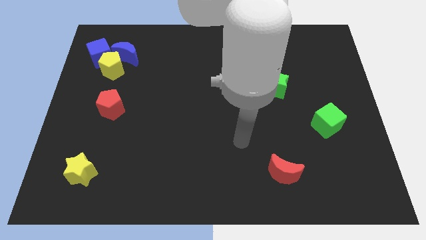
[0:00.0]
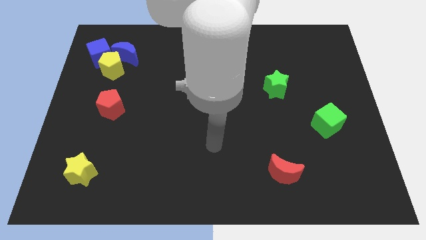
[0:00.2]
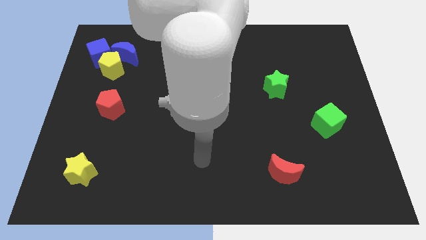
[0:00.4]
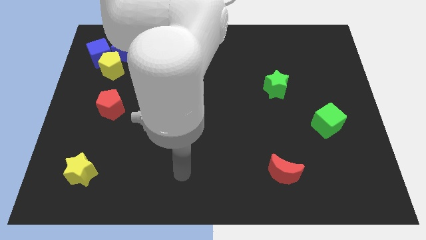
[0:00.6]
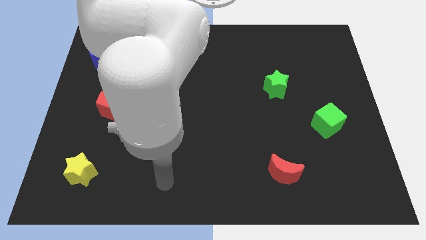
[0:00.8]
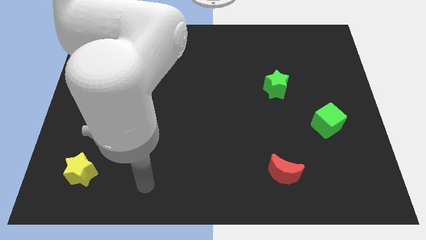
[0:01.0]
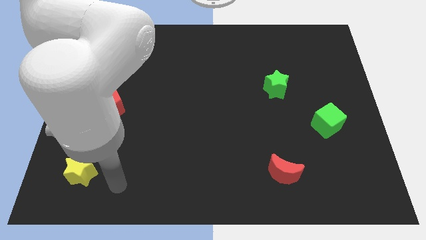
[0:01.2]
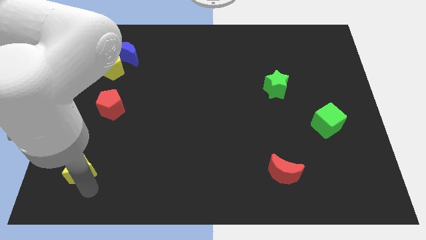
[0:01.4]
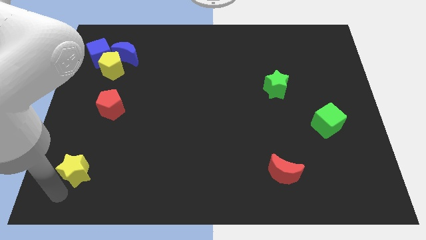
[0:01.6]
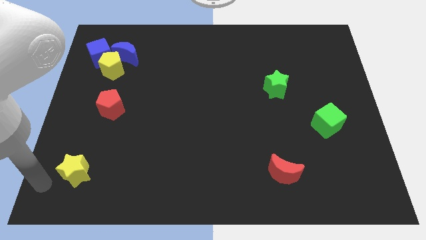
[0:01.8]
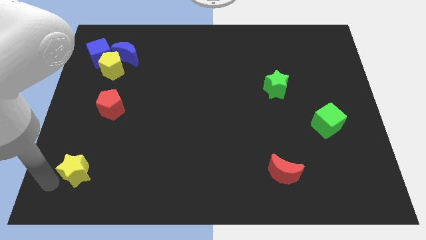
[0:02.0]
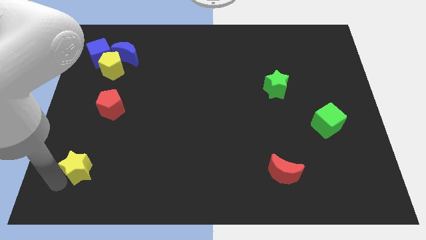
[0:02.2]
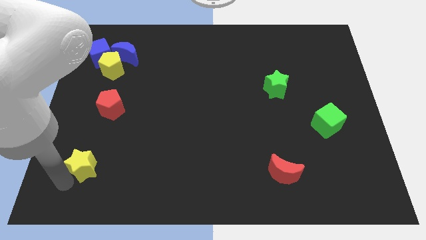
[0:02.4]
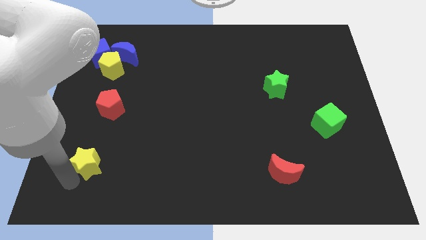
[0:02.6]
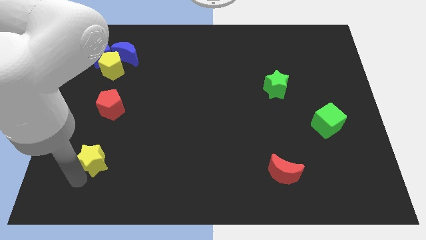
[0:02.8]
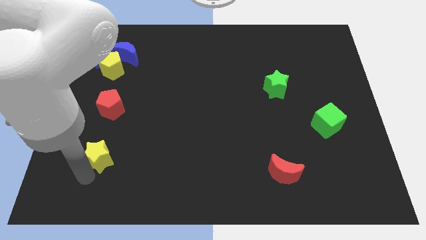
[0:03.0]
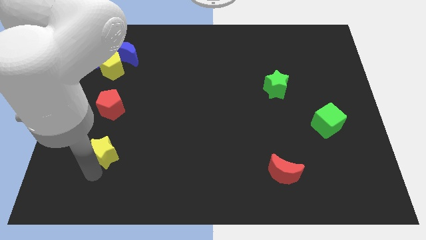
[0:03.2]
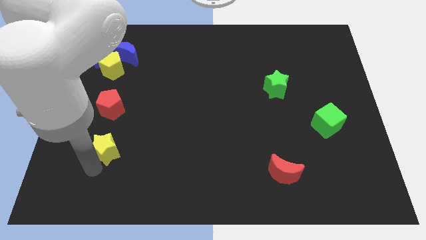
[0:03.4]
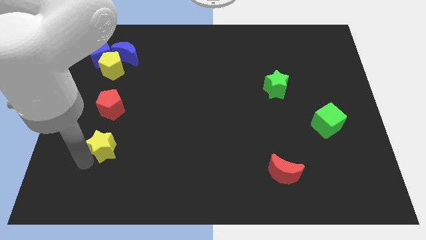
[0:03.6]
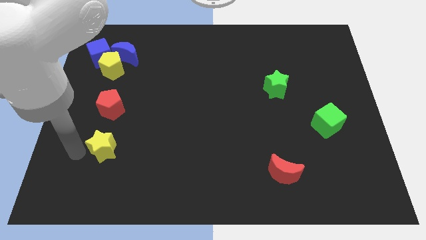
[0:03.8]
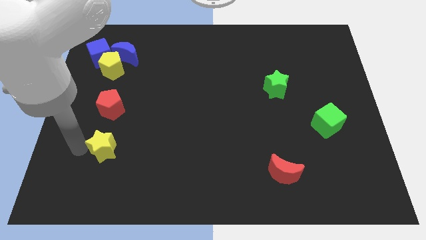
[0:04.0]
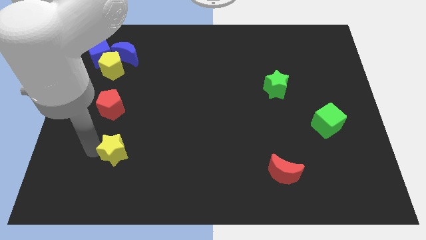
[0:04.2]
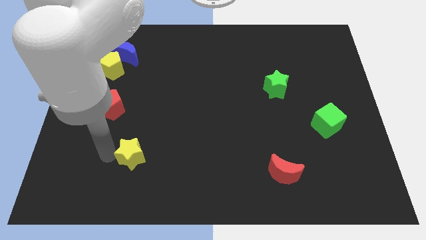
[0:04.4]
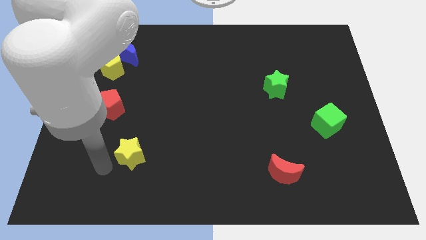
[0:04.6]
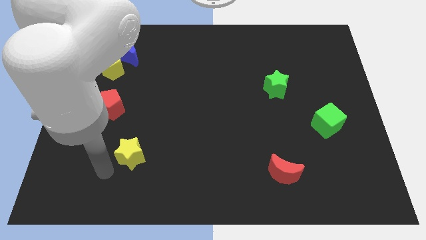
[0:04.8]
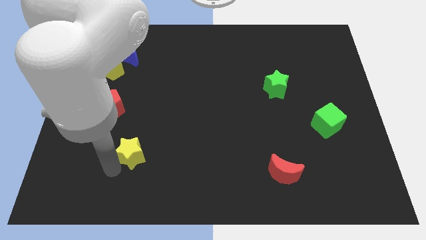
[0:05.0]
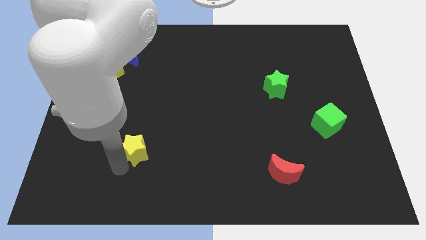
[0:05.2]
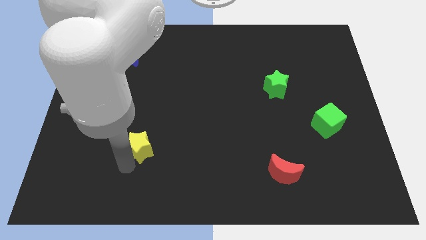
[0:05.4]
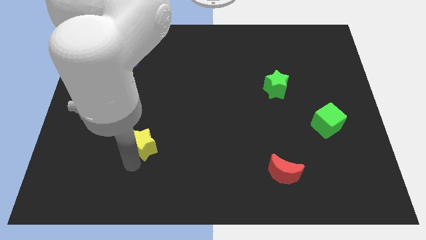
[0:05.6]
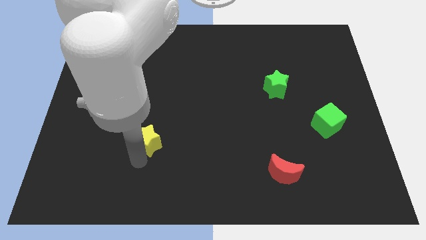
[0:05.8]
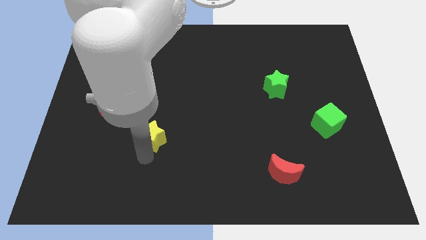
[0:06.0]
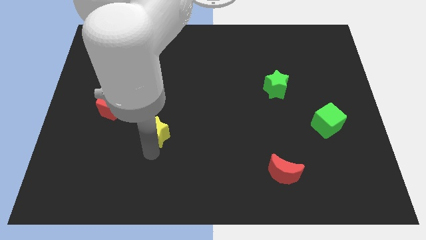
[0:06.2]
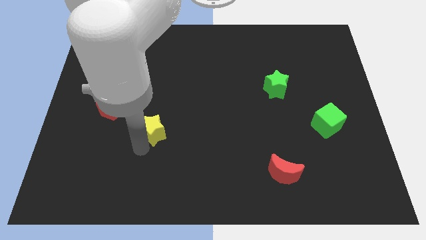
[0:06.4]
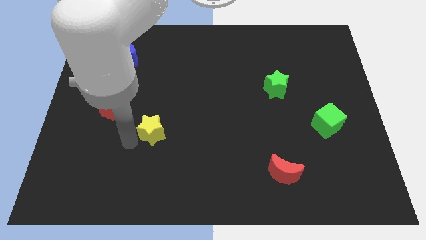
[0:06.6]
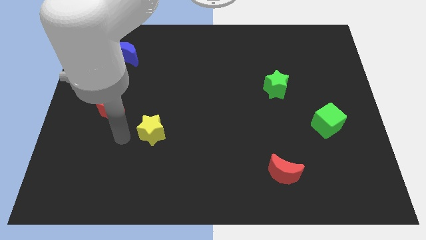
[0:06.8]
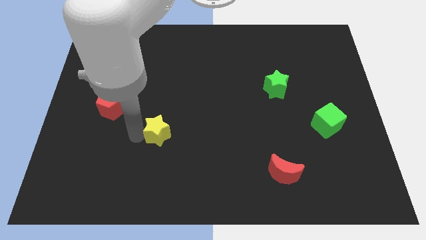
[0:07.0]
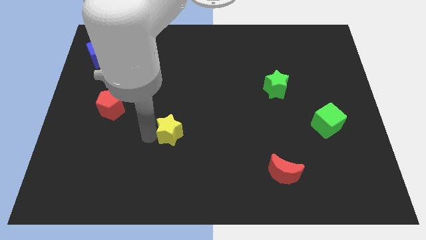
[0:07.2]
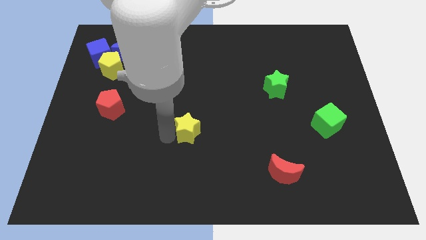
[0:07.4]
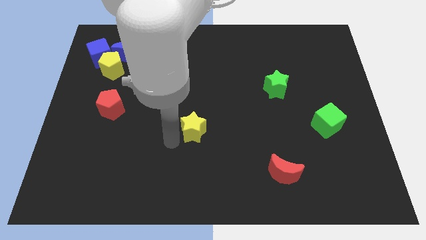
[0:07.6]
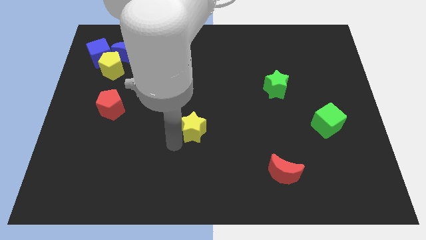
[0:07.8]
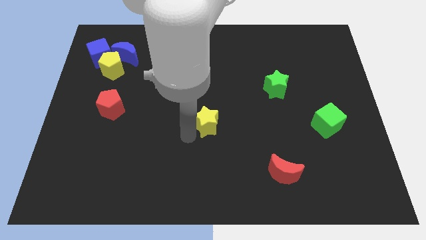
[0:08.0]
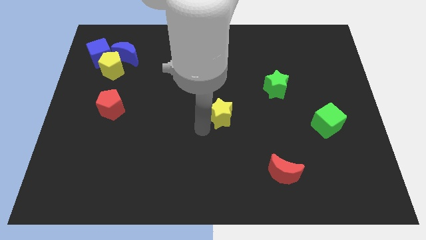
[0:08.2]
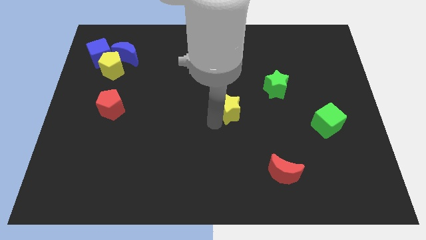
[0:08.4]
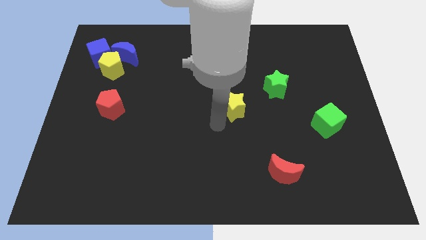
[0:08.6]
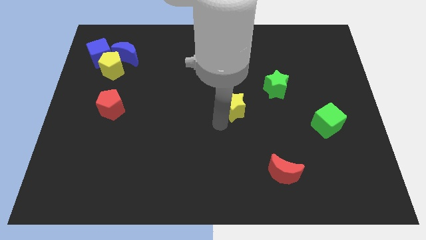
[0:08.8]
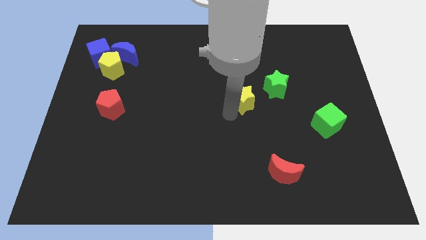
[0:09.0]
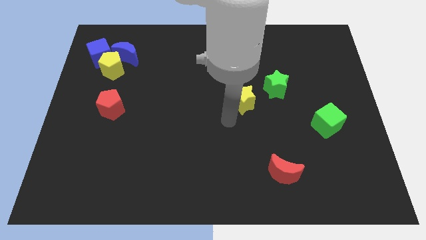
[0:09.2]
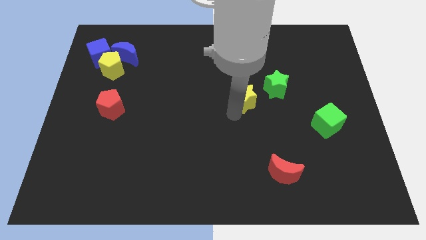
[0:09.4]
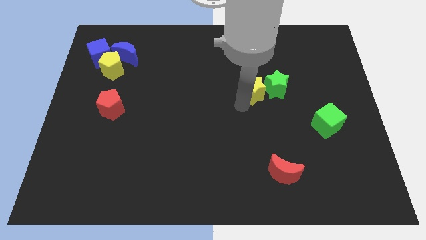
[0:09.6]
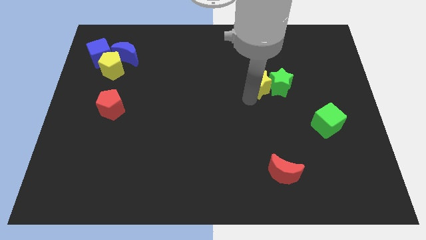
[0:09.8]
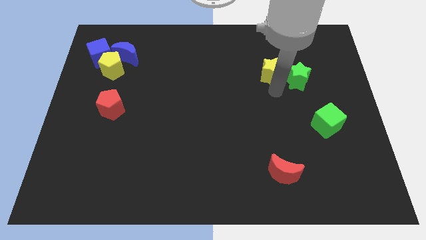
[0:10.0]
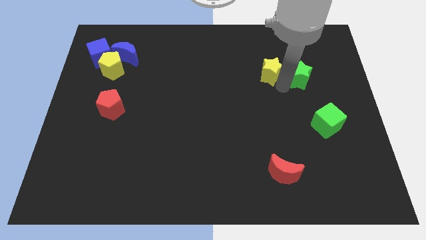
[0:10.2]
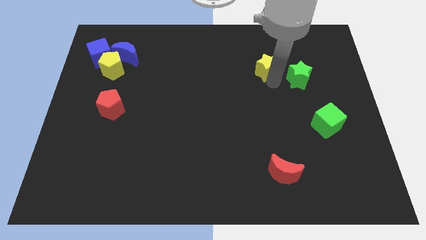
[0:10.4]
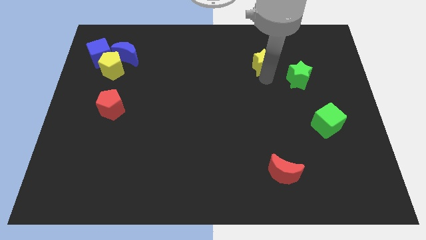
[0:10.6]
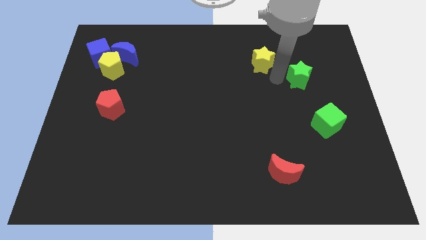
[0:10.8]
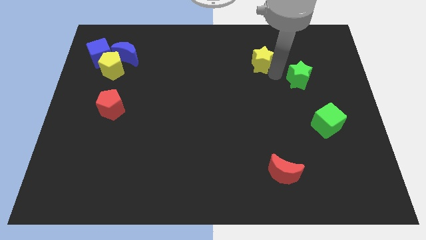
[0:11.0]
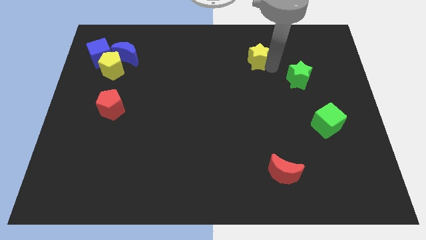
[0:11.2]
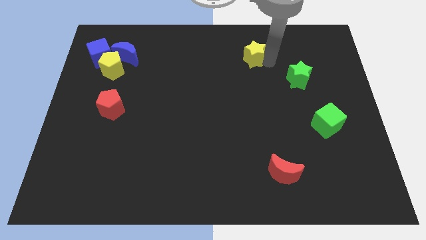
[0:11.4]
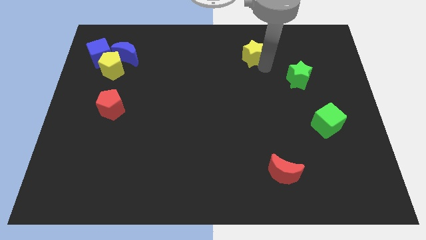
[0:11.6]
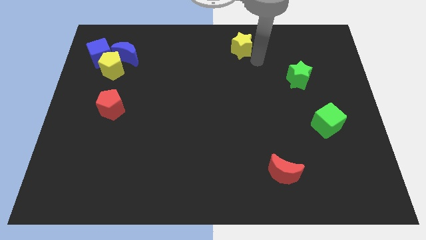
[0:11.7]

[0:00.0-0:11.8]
move the yellow star to the top side
